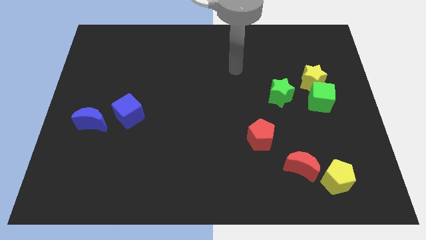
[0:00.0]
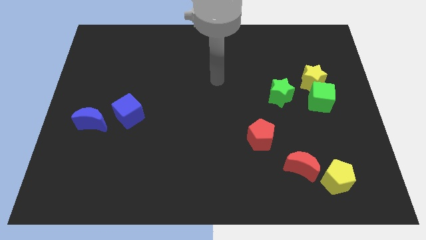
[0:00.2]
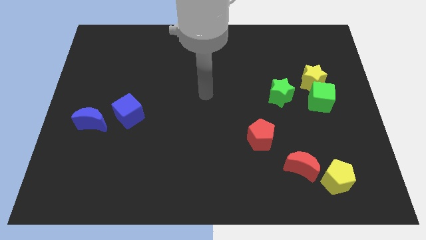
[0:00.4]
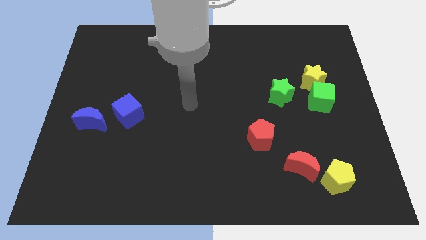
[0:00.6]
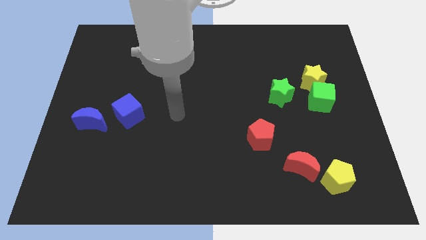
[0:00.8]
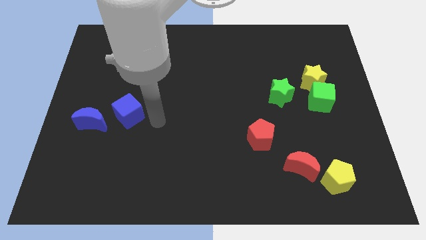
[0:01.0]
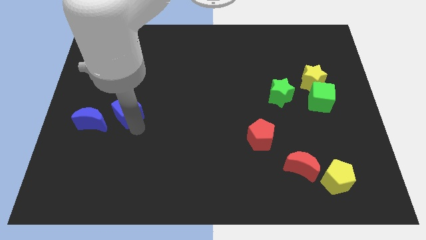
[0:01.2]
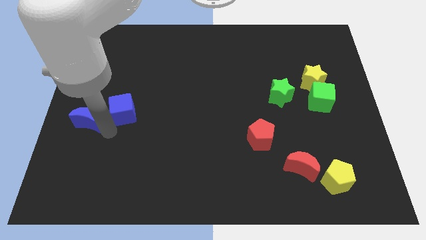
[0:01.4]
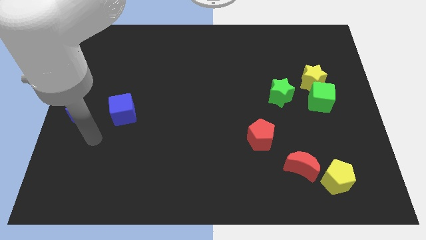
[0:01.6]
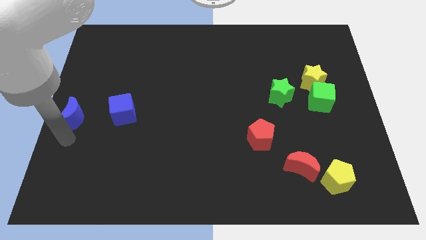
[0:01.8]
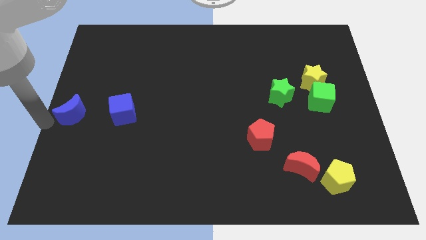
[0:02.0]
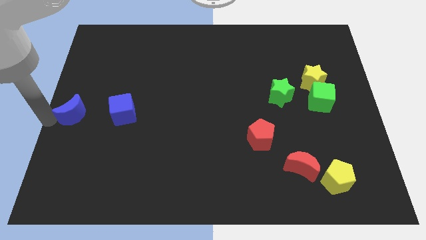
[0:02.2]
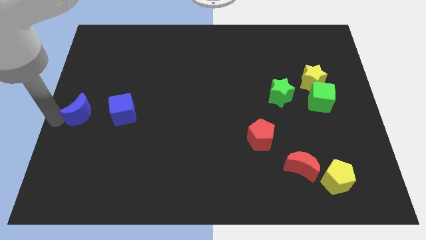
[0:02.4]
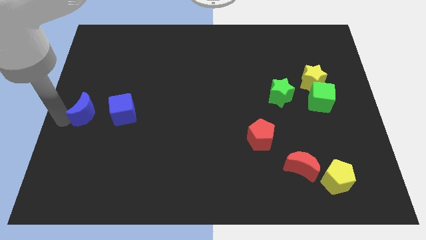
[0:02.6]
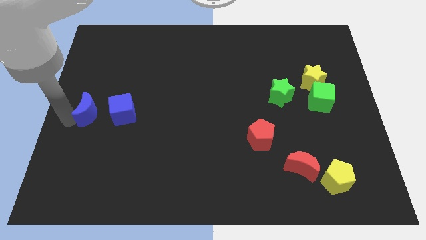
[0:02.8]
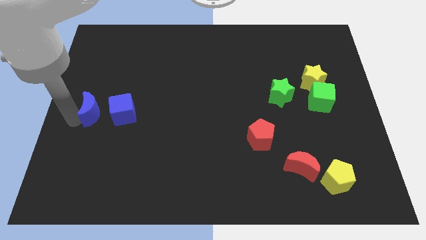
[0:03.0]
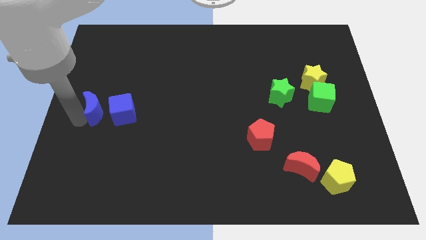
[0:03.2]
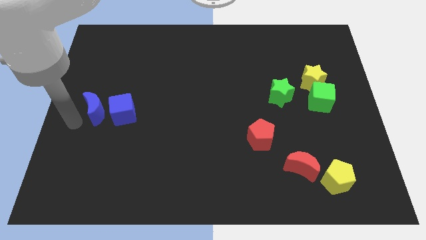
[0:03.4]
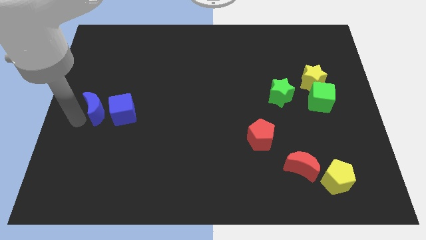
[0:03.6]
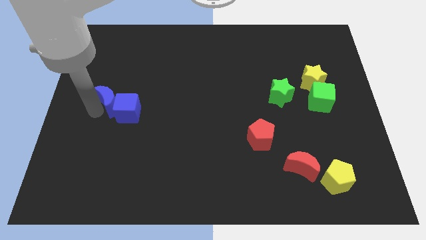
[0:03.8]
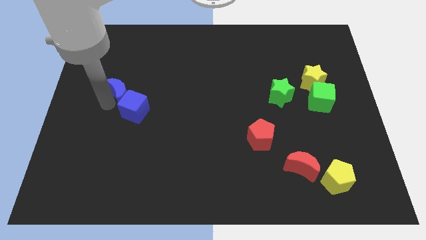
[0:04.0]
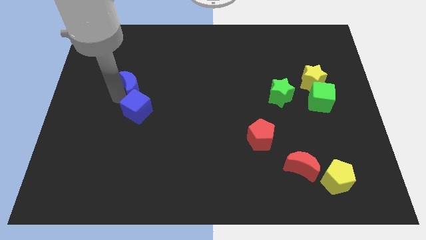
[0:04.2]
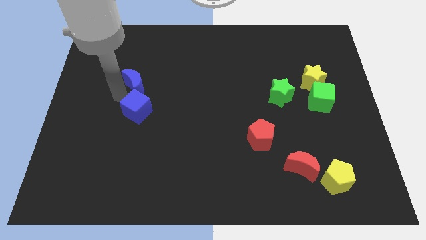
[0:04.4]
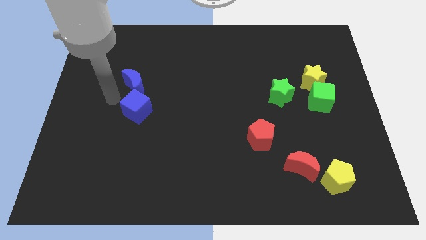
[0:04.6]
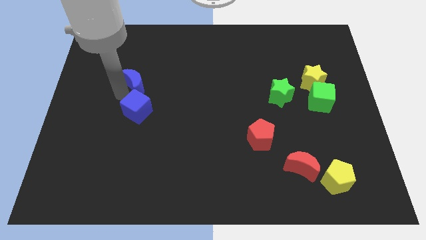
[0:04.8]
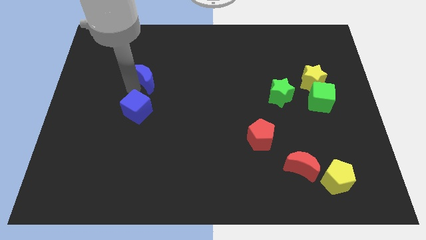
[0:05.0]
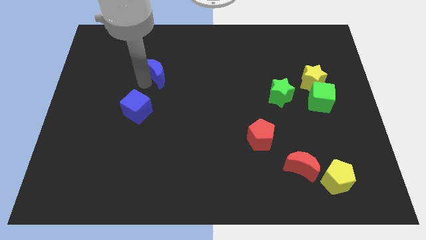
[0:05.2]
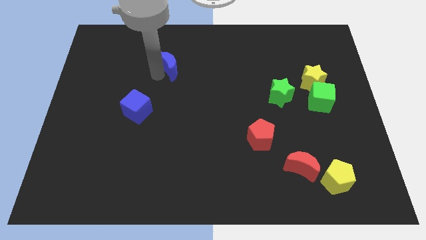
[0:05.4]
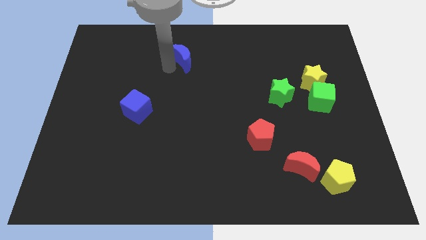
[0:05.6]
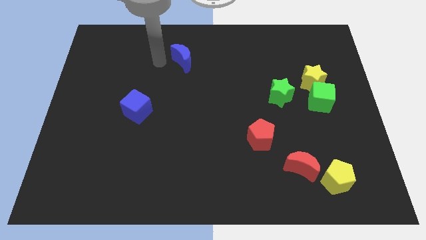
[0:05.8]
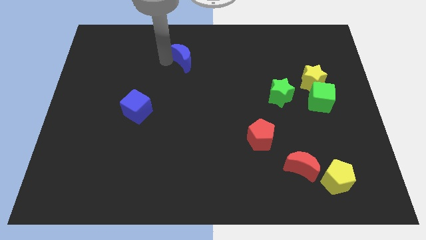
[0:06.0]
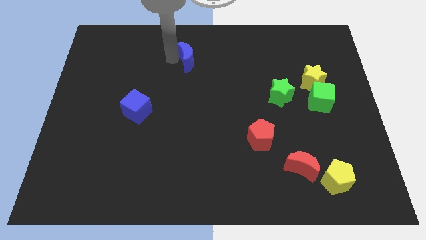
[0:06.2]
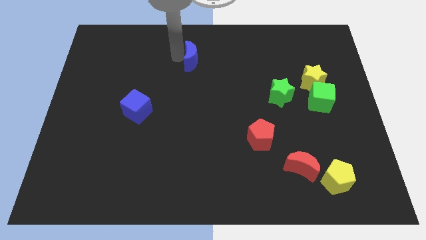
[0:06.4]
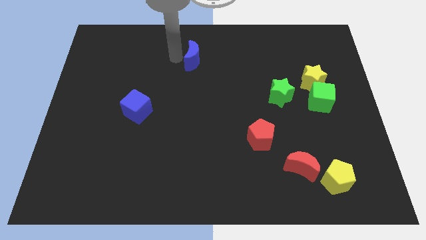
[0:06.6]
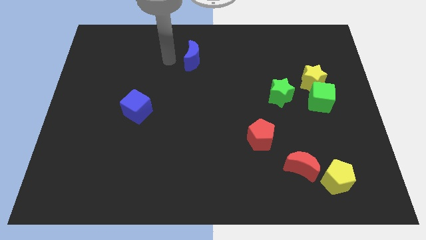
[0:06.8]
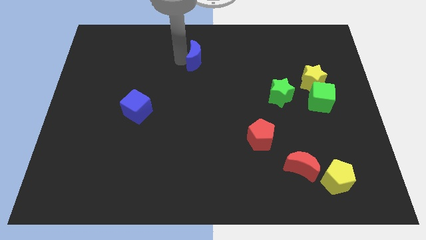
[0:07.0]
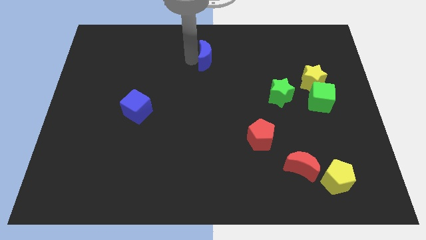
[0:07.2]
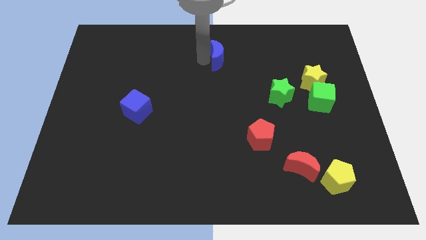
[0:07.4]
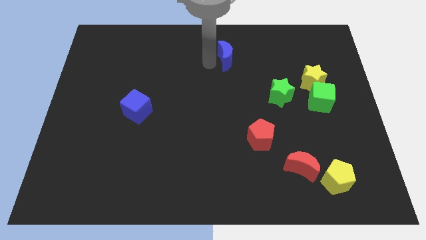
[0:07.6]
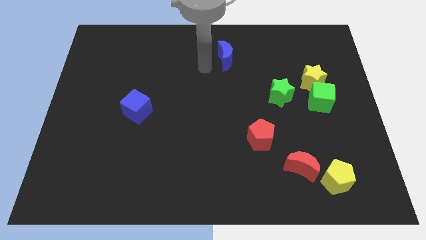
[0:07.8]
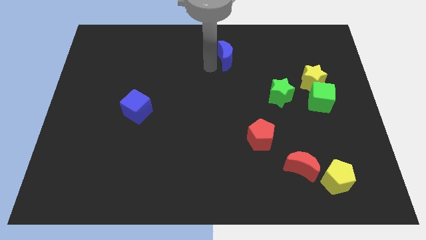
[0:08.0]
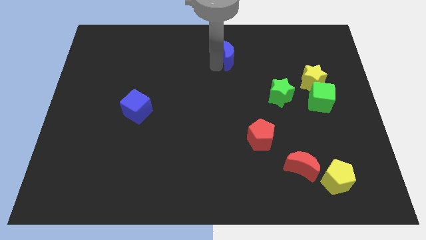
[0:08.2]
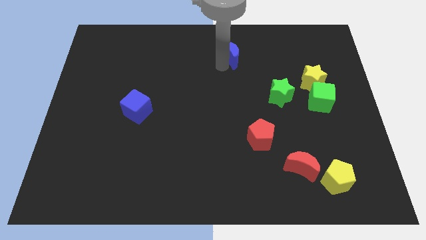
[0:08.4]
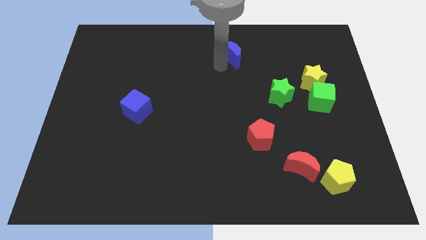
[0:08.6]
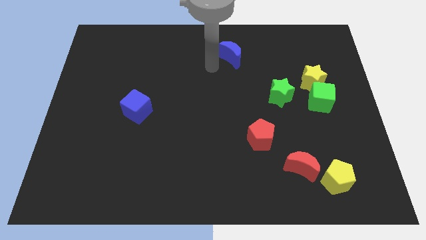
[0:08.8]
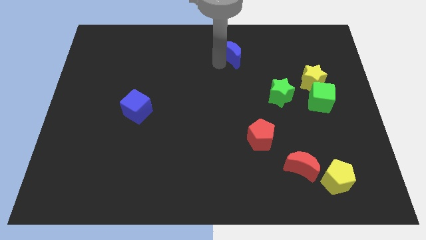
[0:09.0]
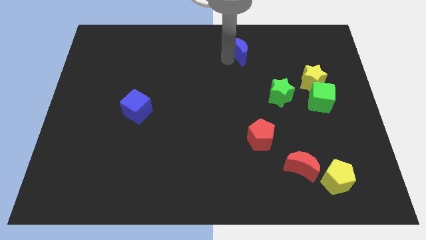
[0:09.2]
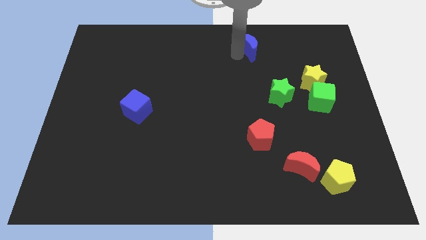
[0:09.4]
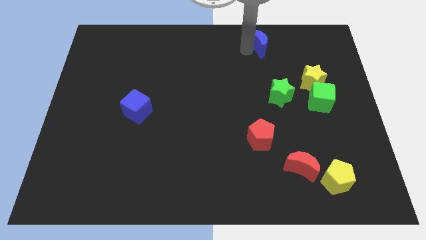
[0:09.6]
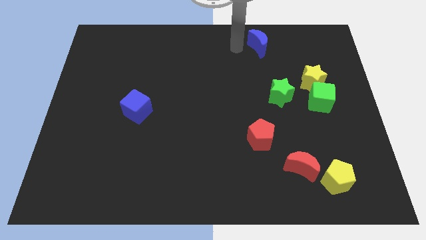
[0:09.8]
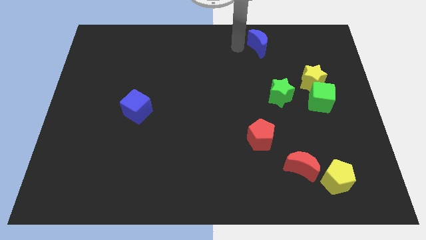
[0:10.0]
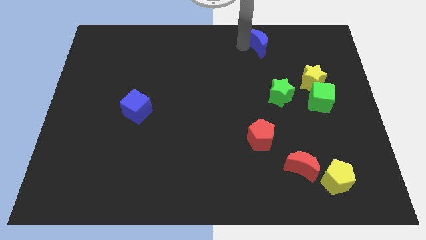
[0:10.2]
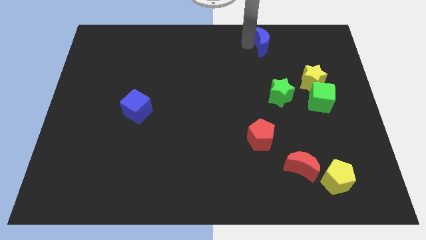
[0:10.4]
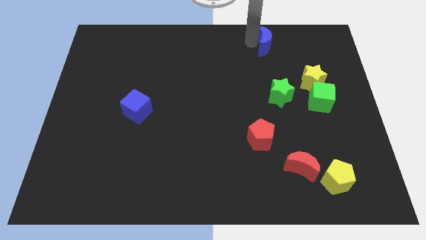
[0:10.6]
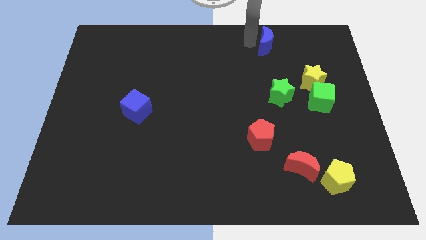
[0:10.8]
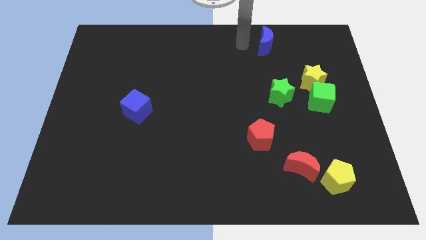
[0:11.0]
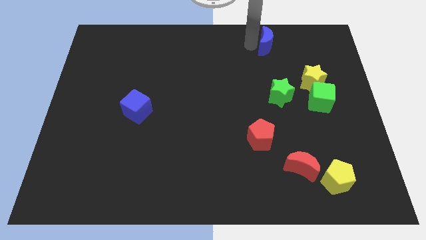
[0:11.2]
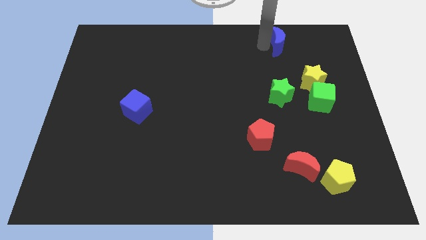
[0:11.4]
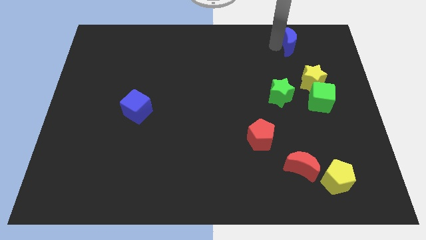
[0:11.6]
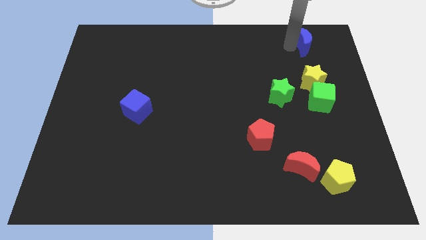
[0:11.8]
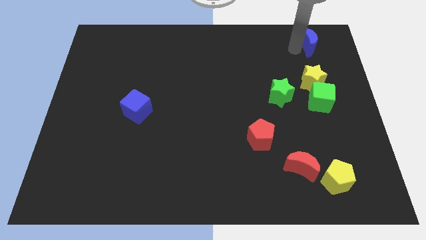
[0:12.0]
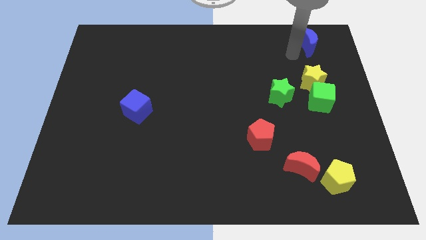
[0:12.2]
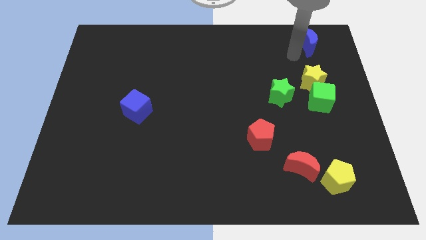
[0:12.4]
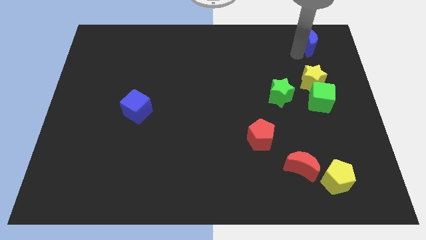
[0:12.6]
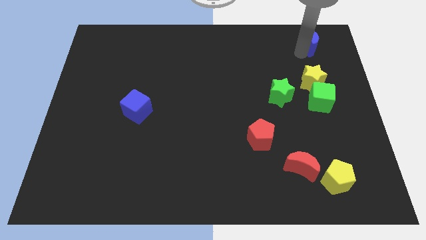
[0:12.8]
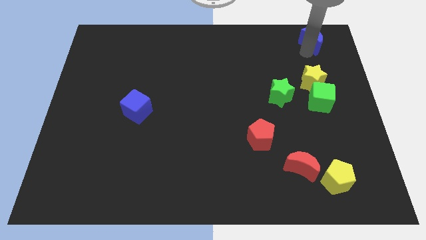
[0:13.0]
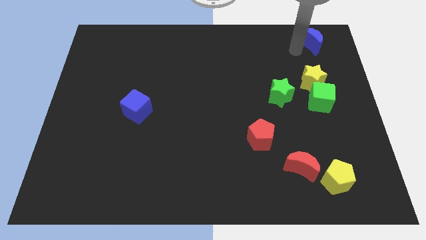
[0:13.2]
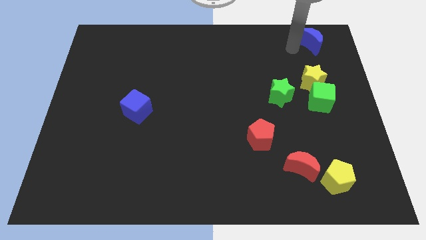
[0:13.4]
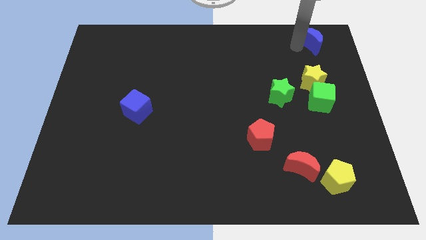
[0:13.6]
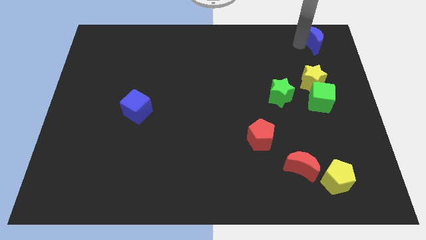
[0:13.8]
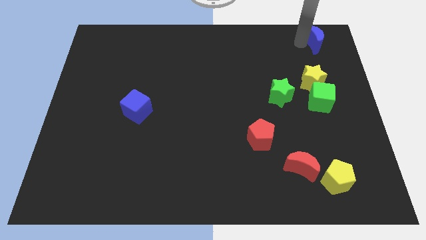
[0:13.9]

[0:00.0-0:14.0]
push the blue moon to the upper right corner
